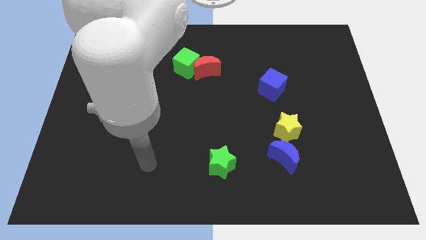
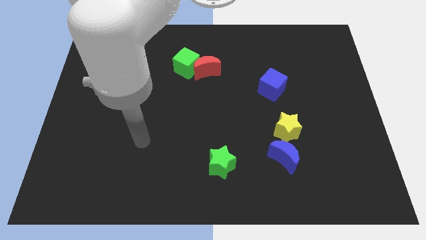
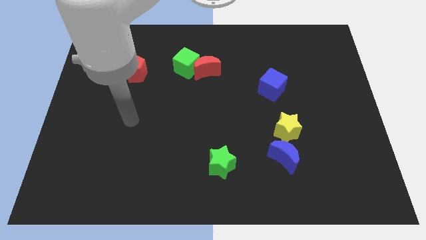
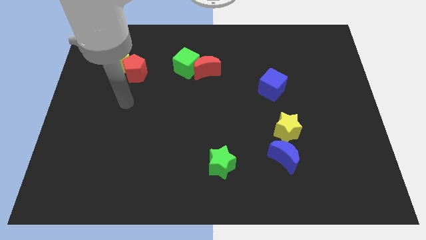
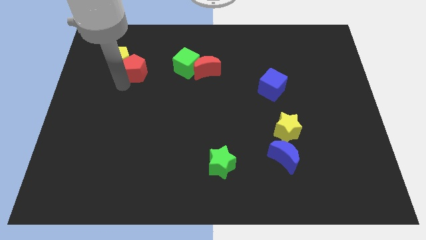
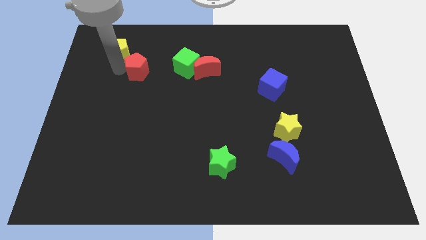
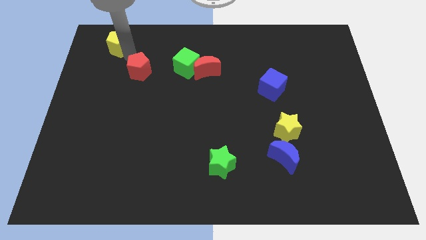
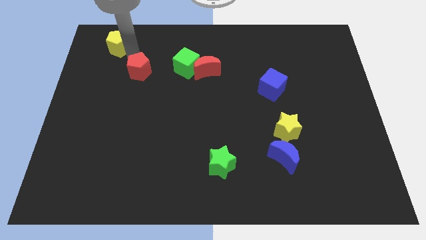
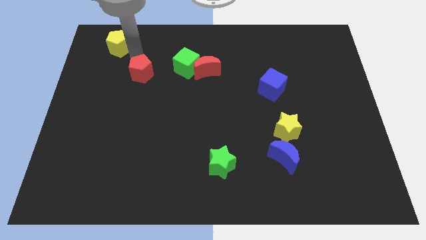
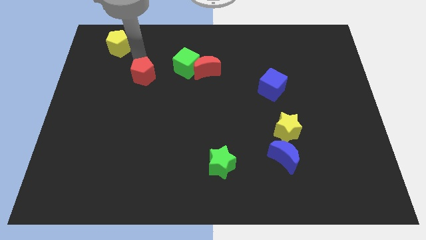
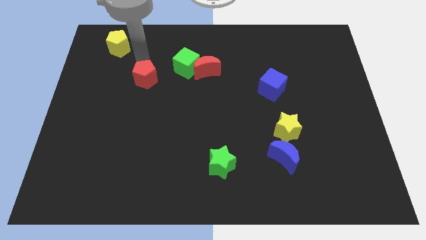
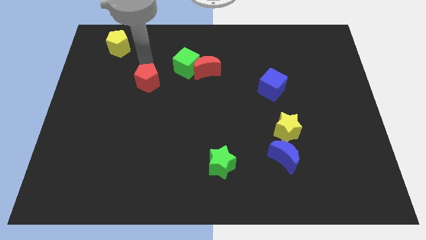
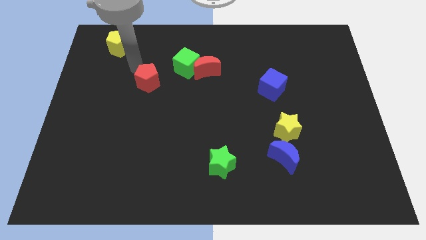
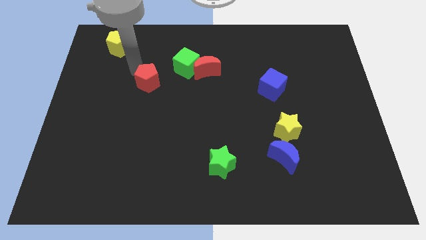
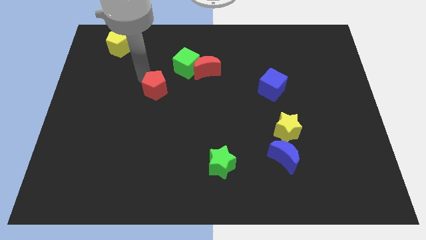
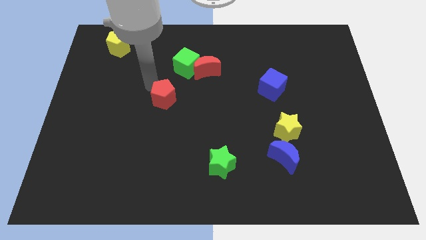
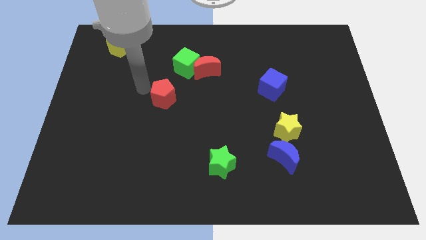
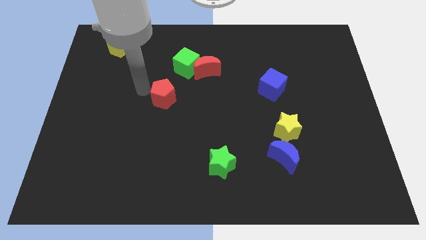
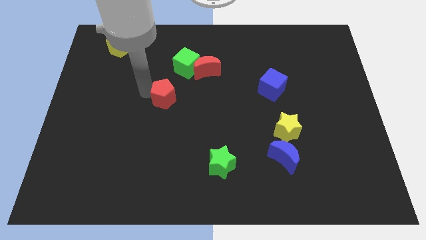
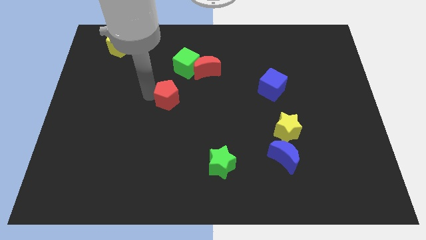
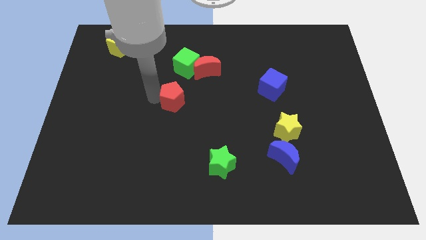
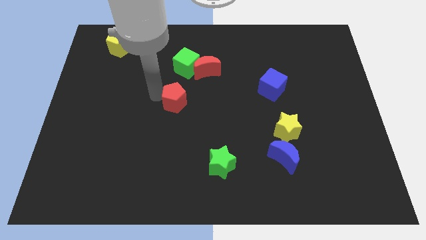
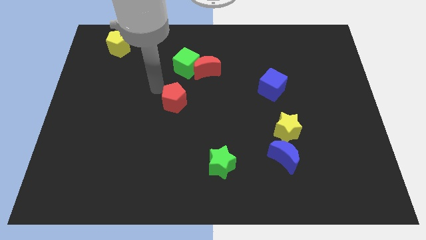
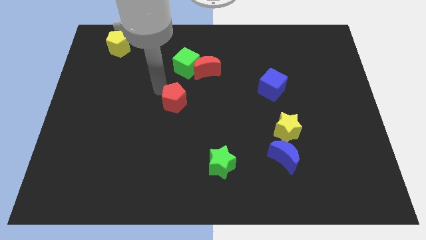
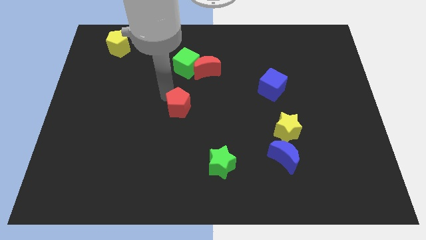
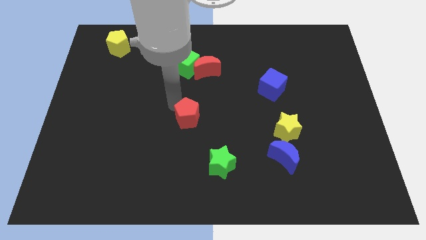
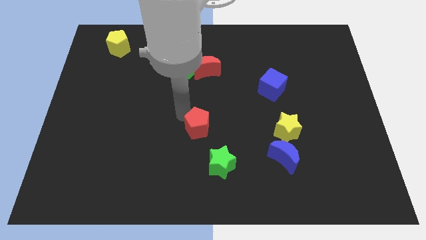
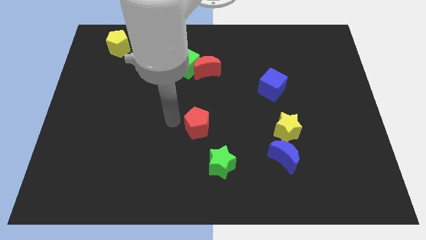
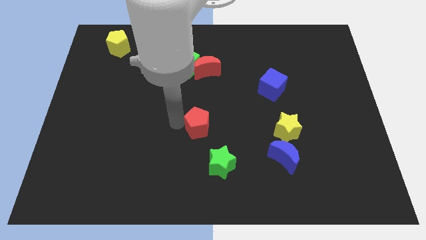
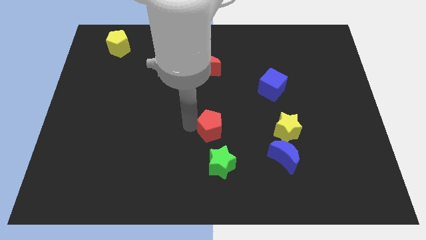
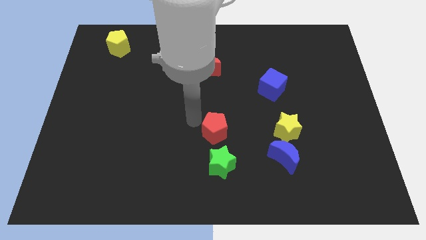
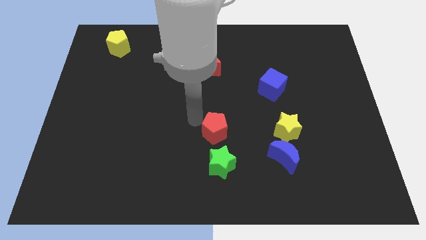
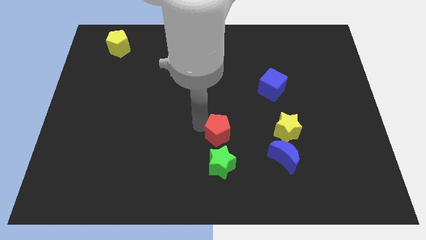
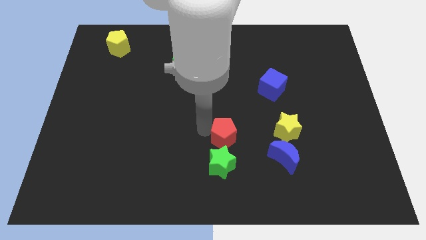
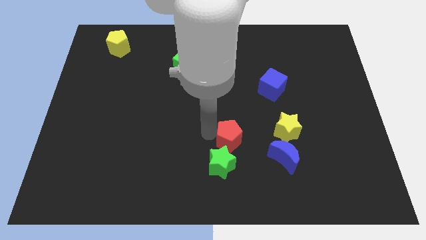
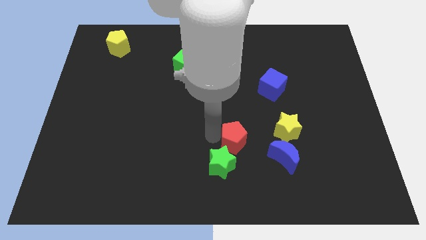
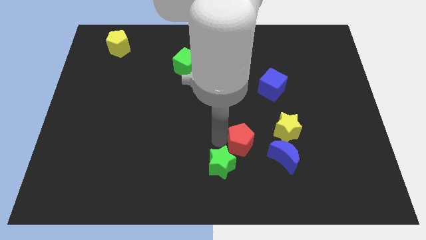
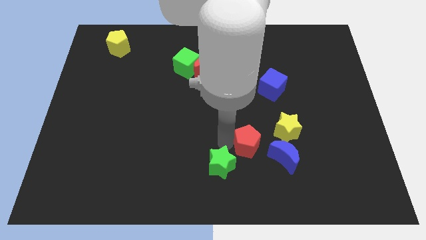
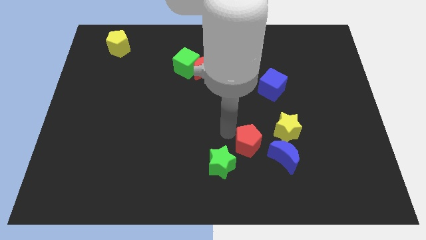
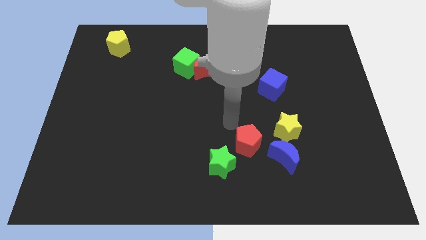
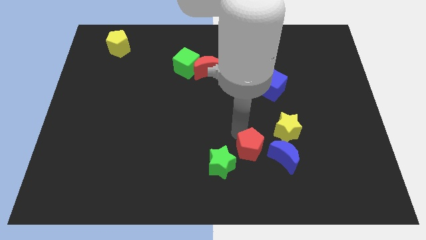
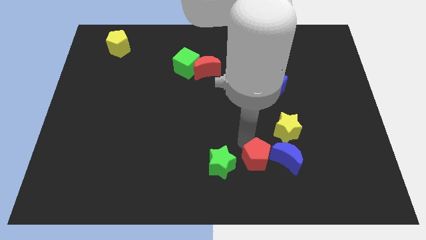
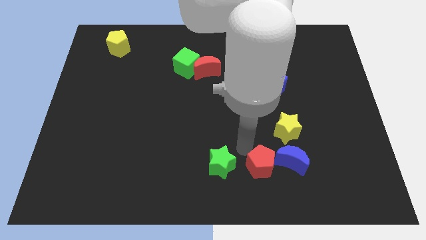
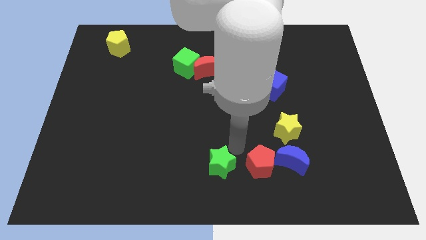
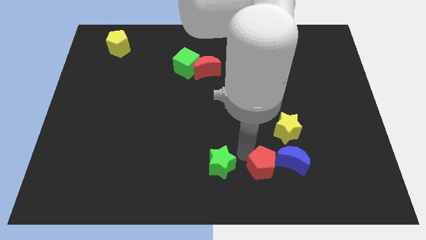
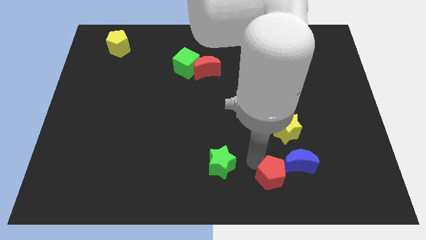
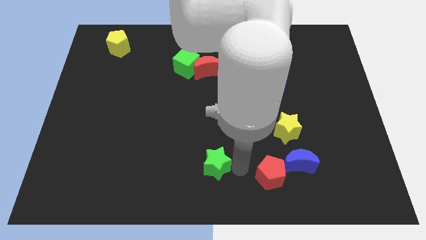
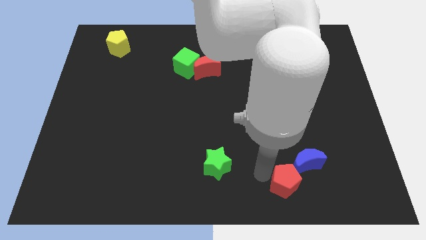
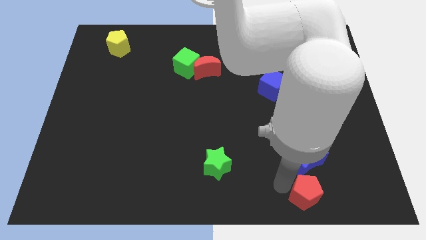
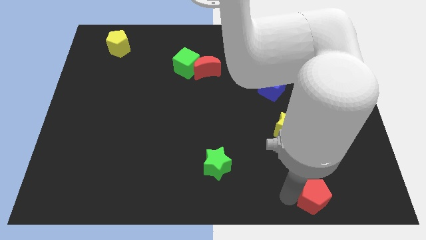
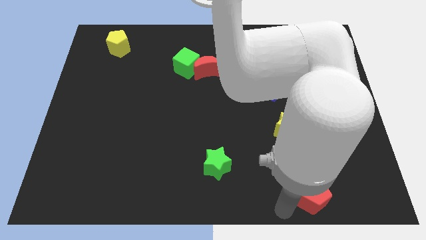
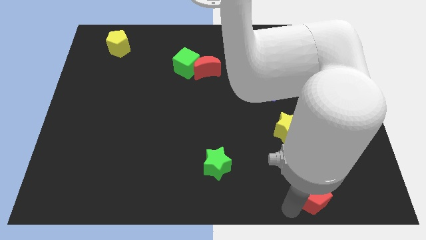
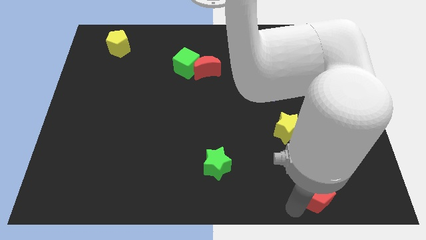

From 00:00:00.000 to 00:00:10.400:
push the red pentagon diagonally down and to the right of the blue moon

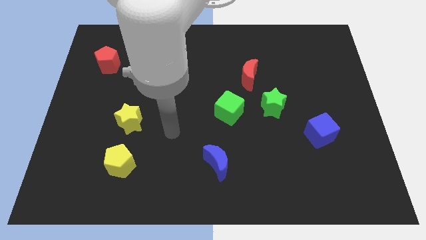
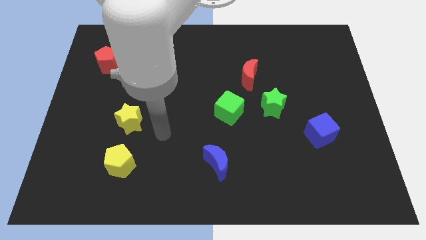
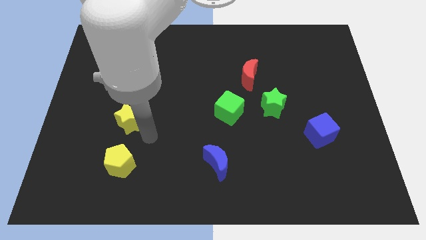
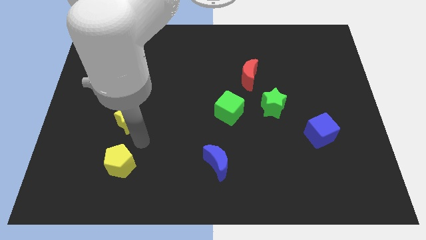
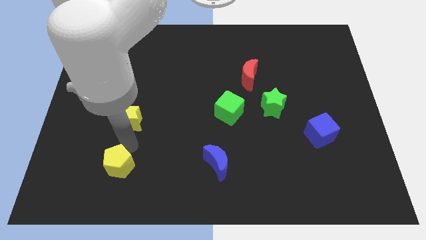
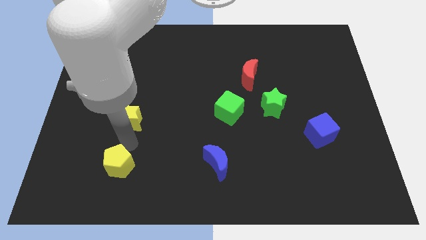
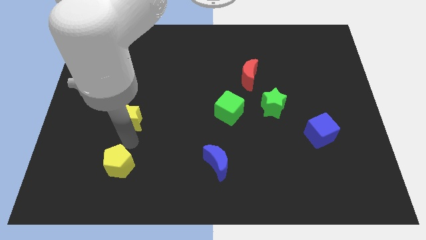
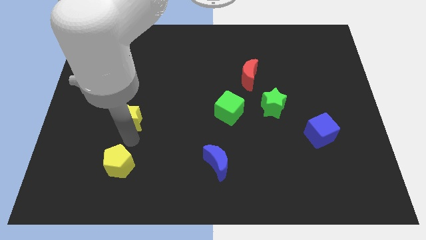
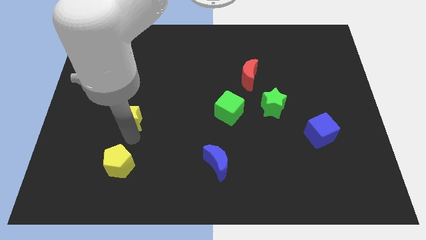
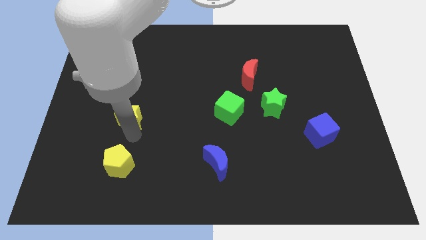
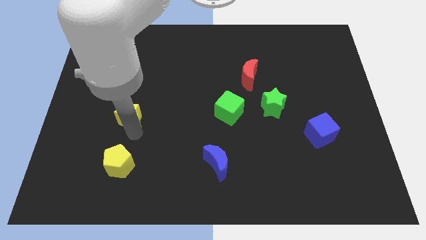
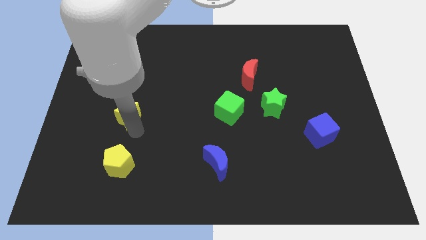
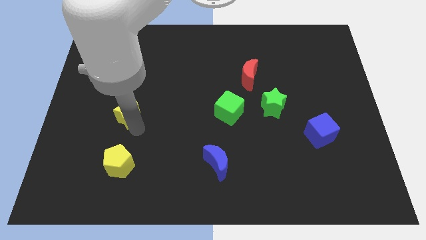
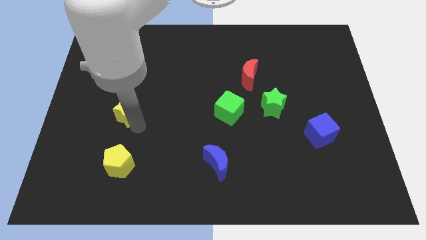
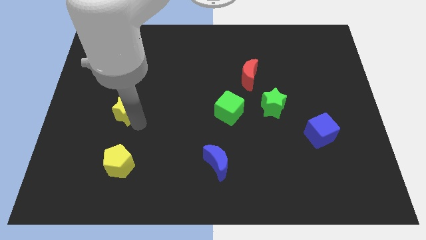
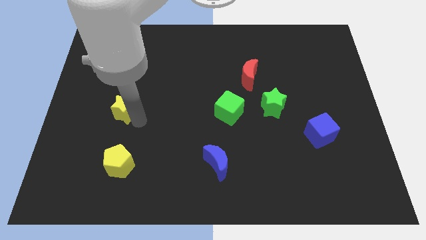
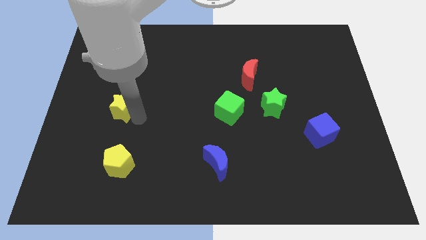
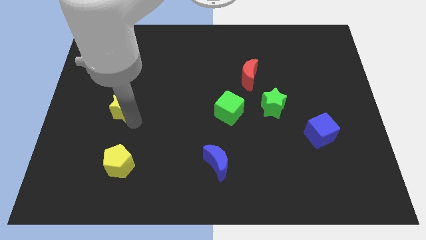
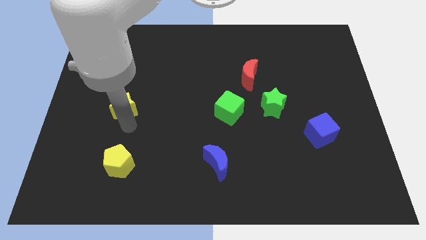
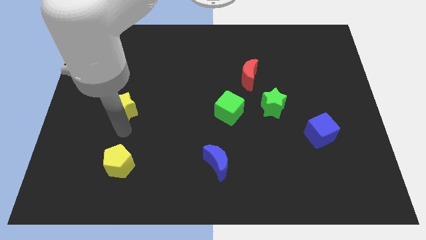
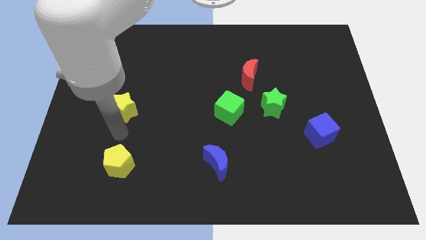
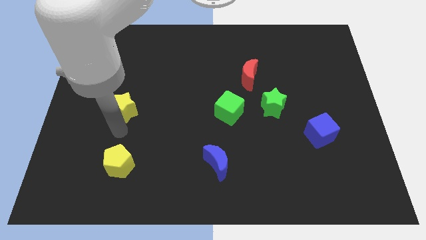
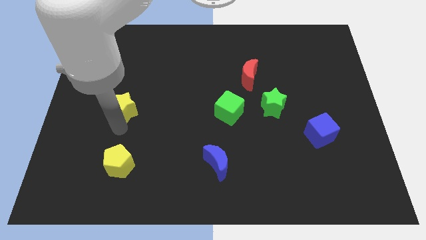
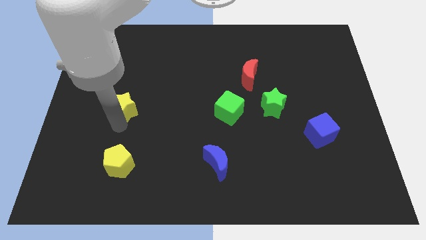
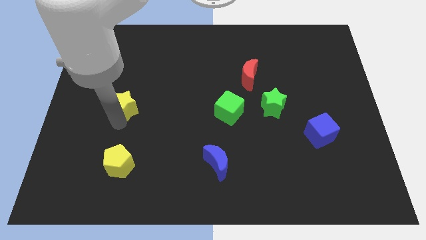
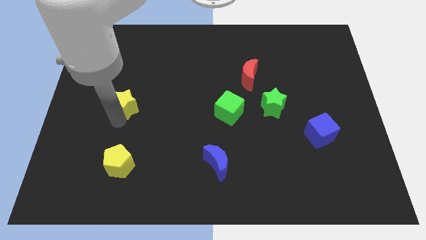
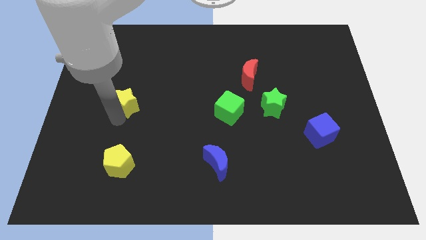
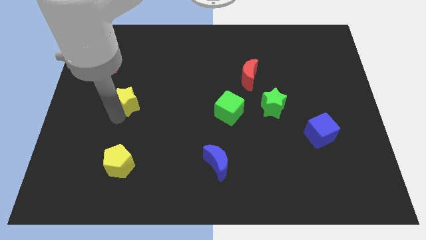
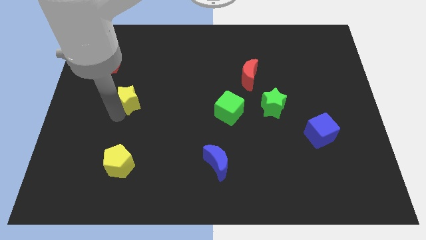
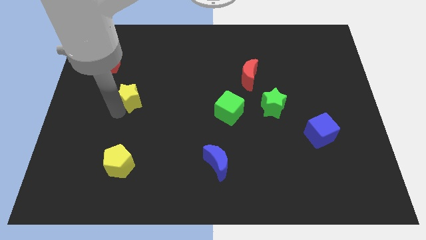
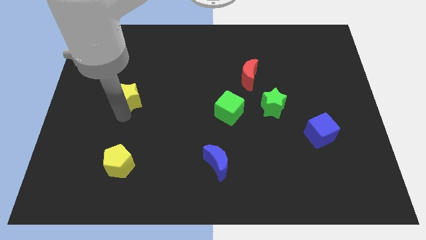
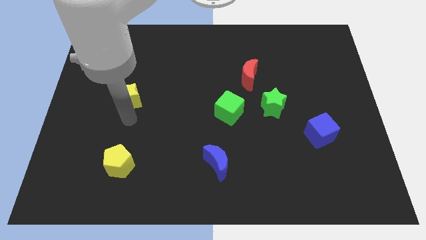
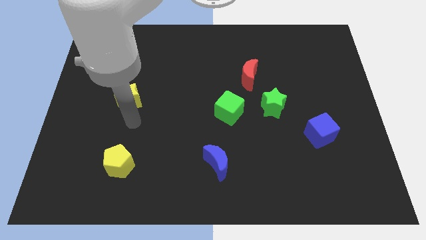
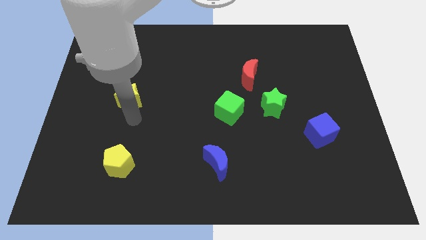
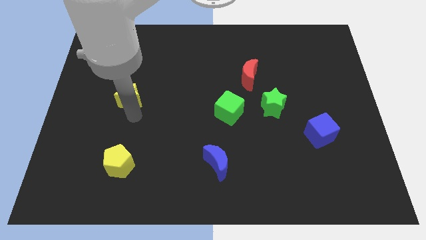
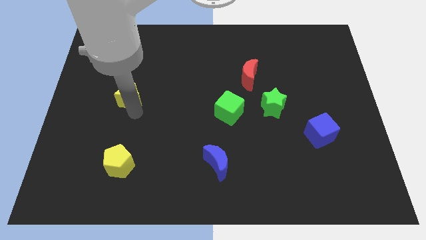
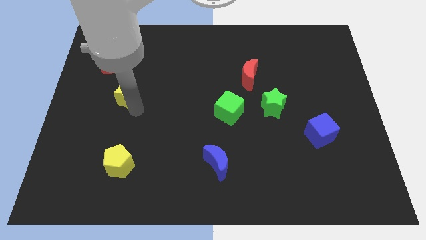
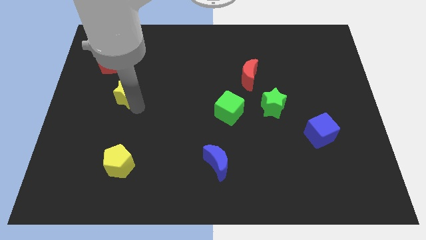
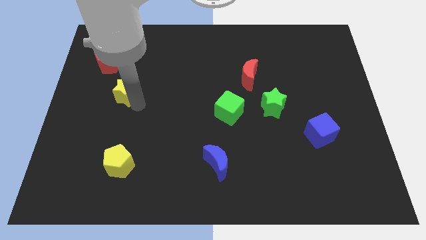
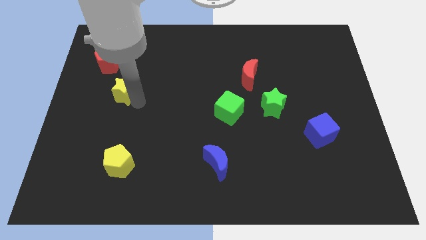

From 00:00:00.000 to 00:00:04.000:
put the yellow star to the bottom right side of the red pentagon
